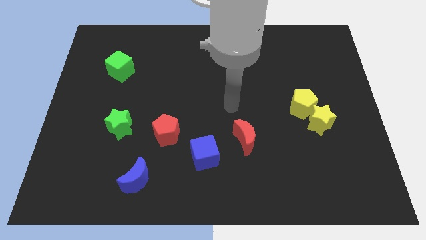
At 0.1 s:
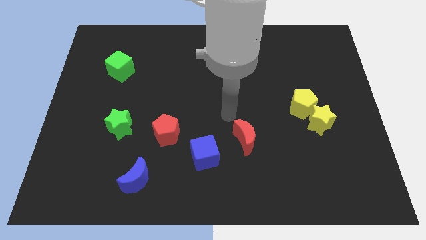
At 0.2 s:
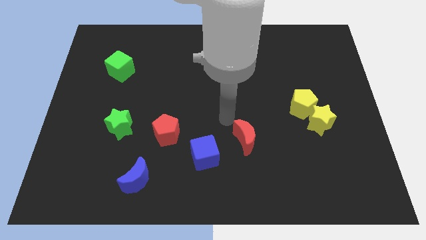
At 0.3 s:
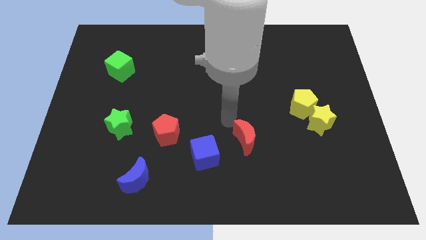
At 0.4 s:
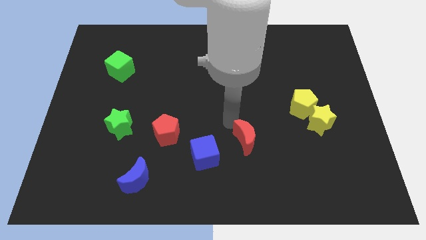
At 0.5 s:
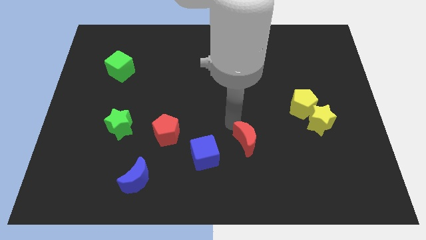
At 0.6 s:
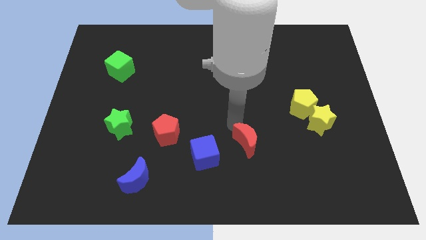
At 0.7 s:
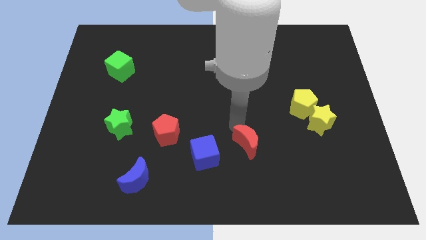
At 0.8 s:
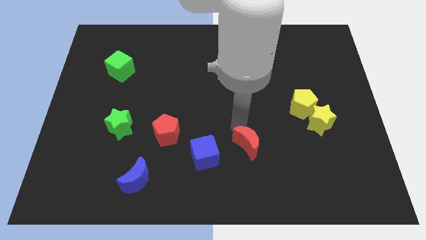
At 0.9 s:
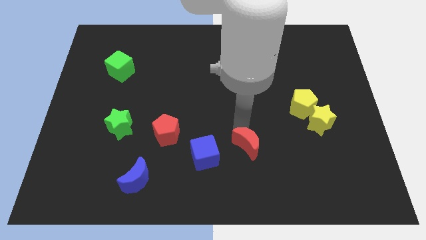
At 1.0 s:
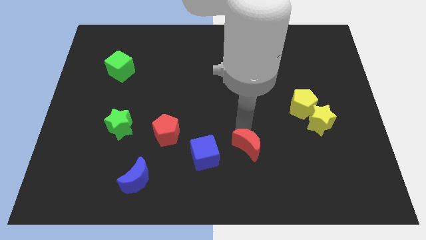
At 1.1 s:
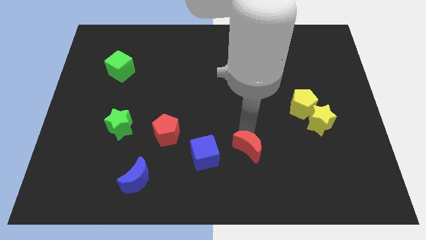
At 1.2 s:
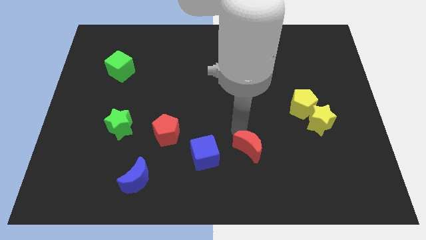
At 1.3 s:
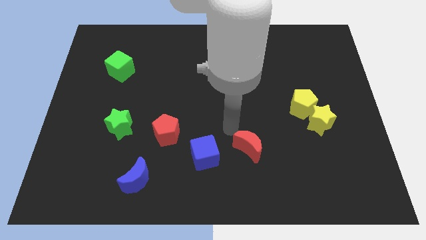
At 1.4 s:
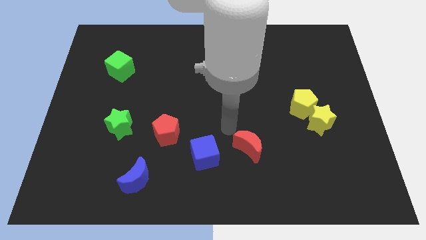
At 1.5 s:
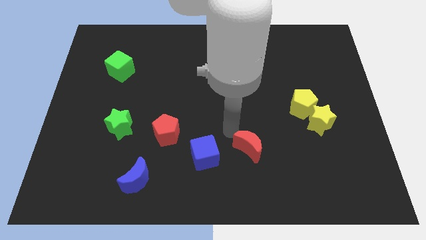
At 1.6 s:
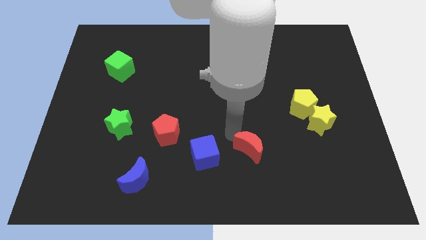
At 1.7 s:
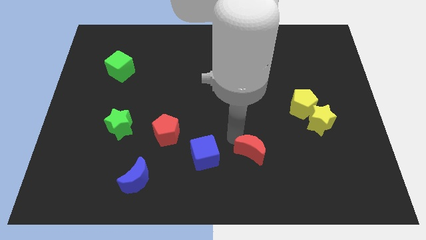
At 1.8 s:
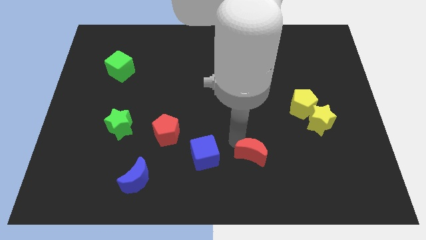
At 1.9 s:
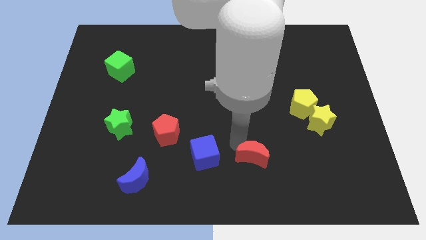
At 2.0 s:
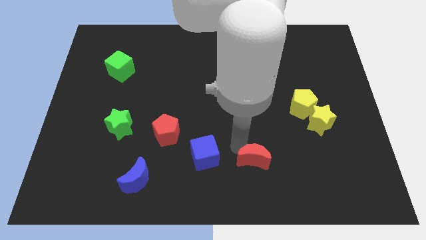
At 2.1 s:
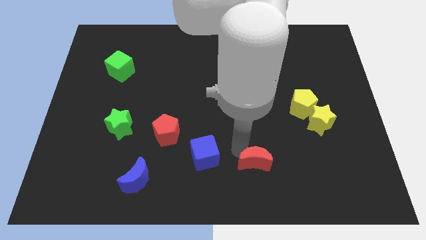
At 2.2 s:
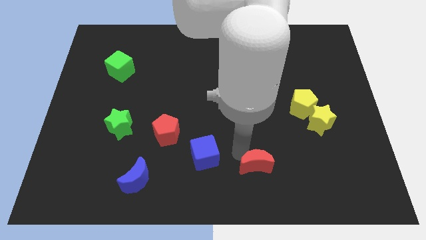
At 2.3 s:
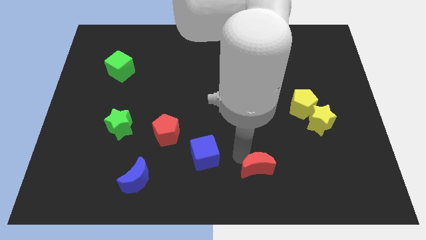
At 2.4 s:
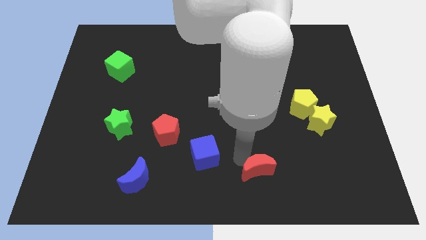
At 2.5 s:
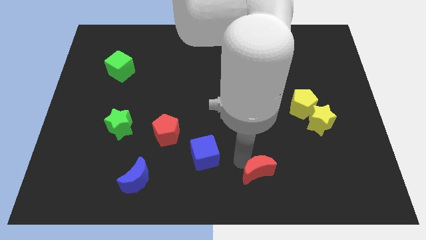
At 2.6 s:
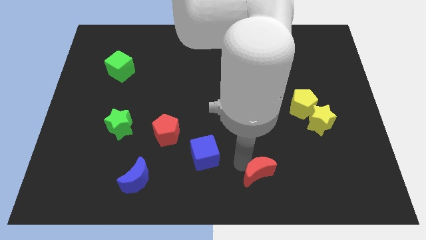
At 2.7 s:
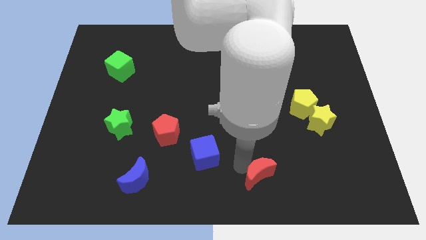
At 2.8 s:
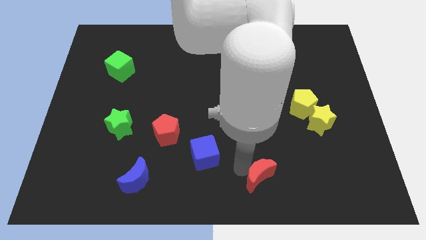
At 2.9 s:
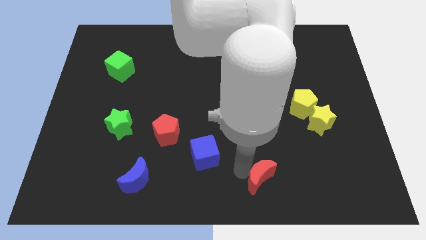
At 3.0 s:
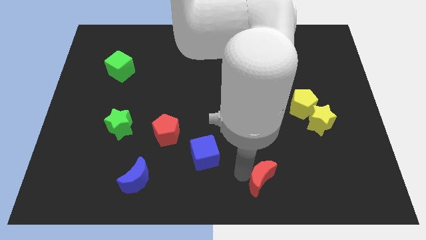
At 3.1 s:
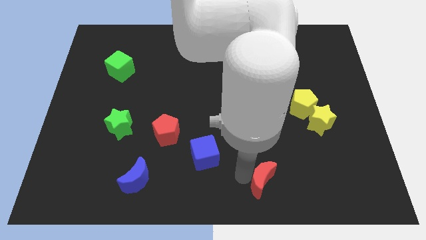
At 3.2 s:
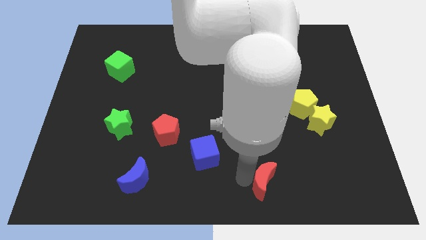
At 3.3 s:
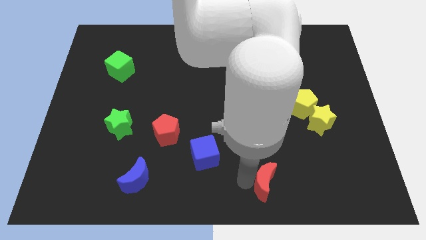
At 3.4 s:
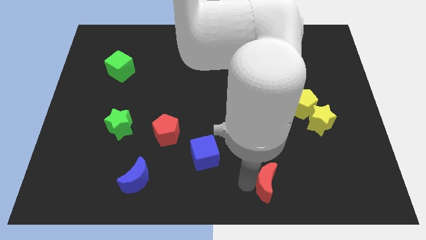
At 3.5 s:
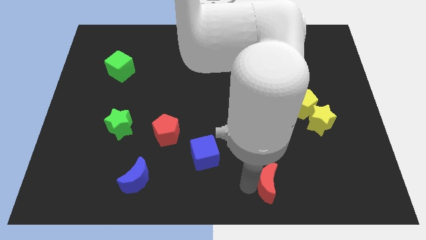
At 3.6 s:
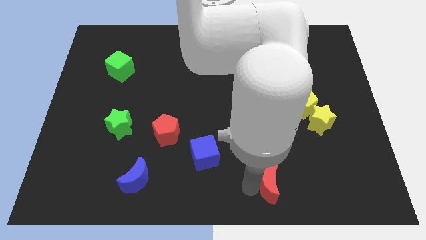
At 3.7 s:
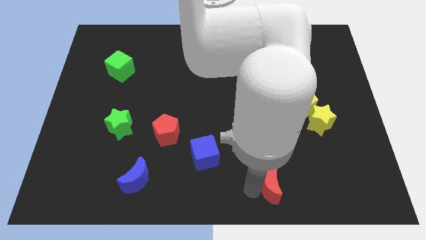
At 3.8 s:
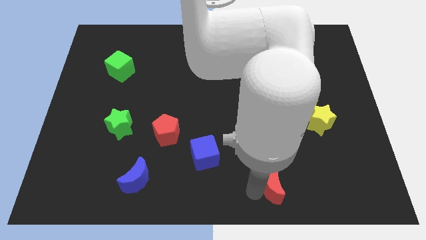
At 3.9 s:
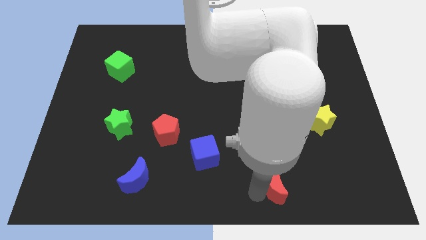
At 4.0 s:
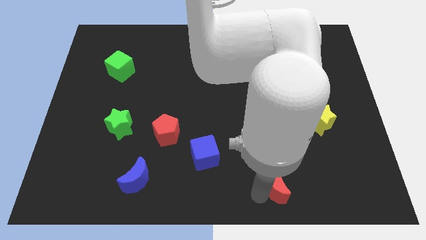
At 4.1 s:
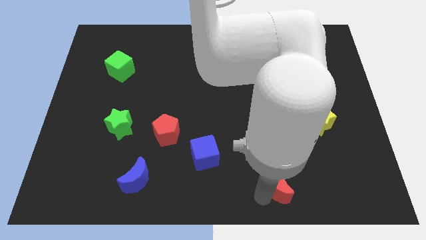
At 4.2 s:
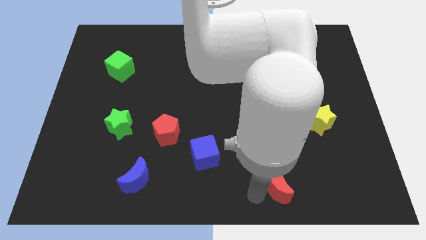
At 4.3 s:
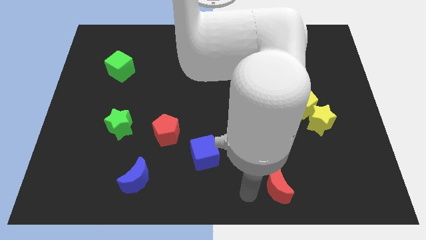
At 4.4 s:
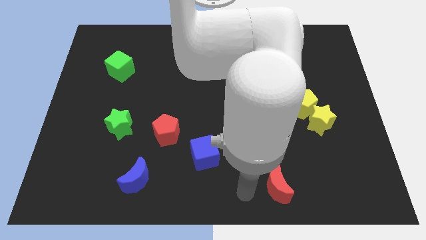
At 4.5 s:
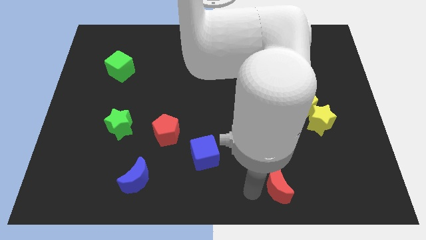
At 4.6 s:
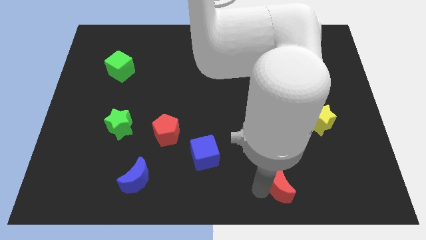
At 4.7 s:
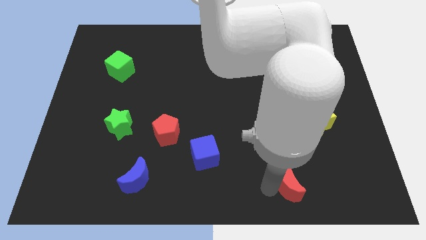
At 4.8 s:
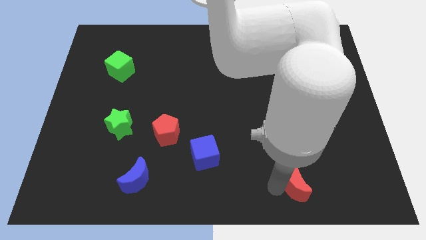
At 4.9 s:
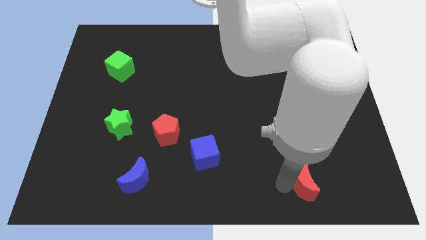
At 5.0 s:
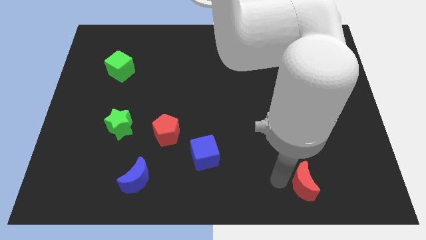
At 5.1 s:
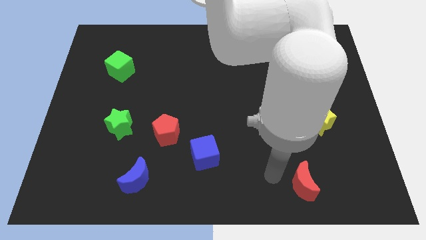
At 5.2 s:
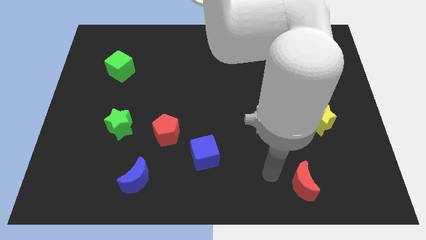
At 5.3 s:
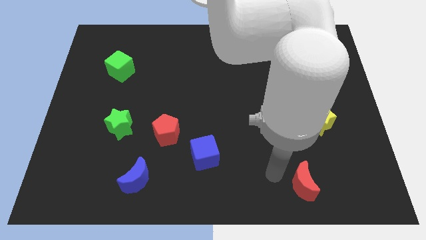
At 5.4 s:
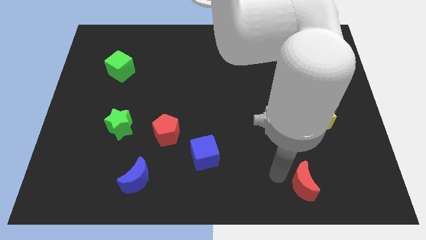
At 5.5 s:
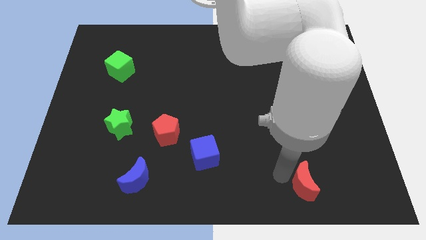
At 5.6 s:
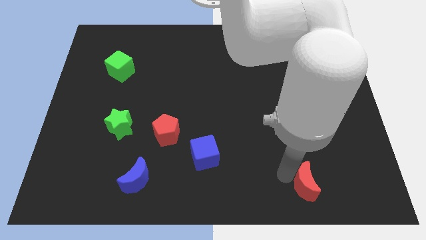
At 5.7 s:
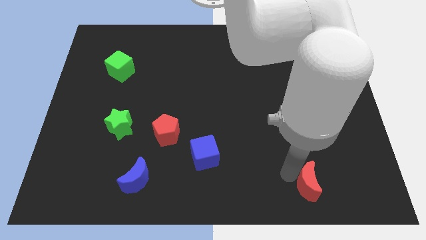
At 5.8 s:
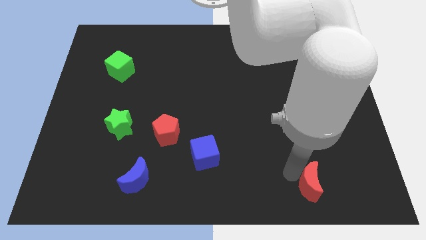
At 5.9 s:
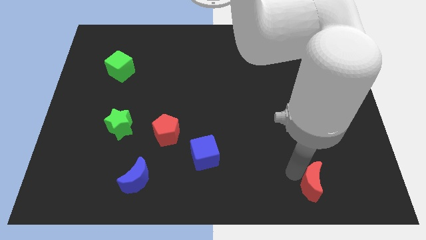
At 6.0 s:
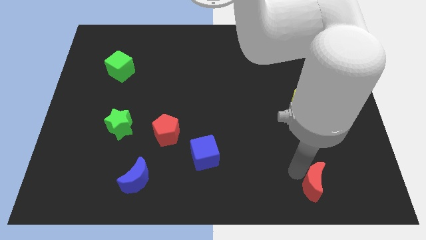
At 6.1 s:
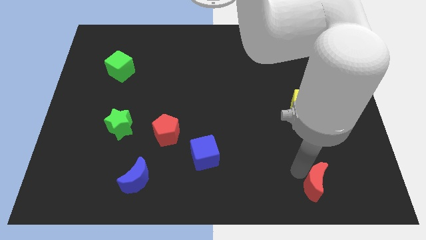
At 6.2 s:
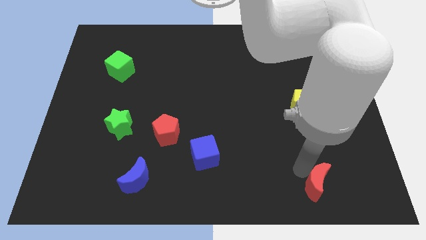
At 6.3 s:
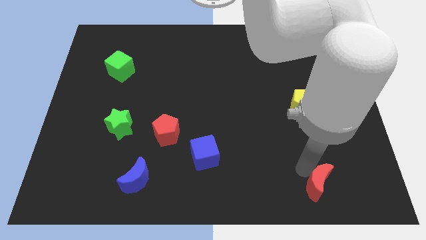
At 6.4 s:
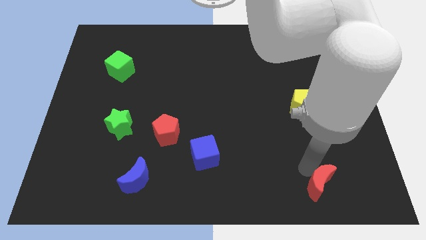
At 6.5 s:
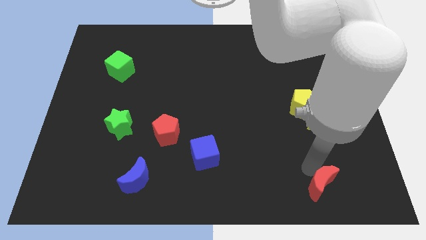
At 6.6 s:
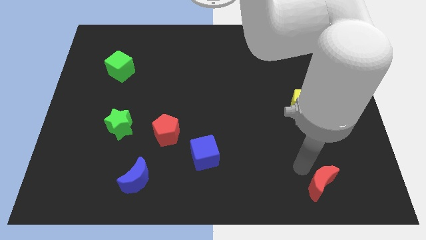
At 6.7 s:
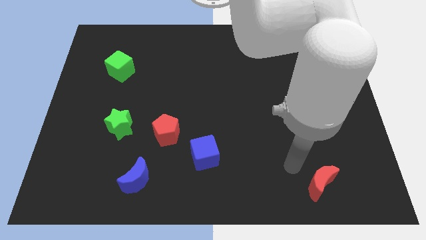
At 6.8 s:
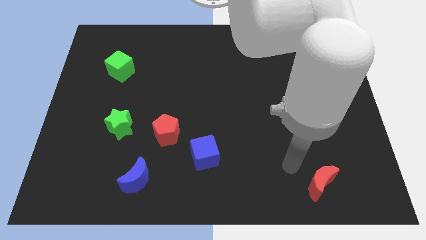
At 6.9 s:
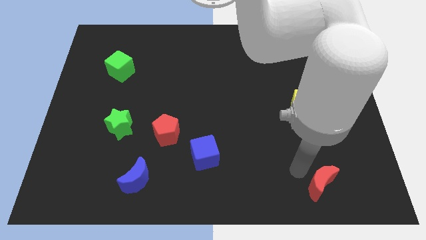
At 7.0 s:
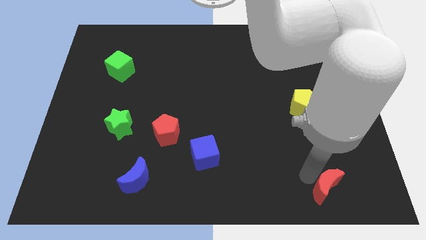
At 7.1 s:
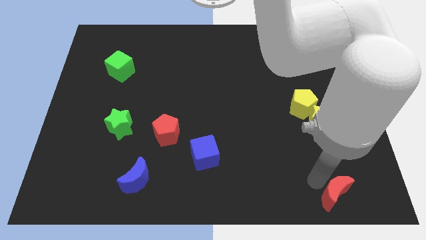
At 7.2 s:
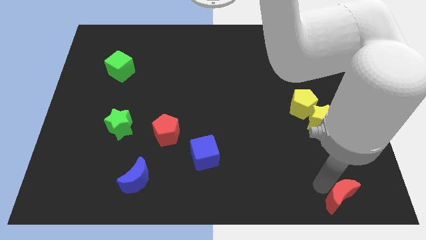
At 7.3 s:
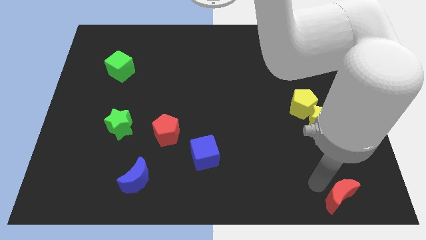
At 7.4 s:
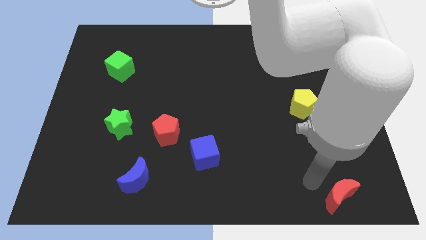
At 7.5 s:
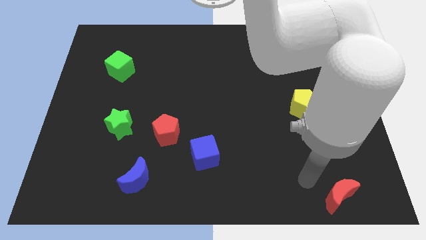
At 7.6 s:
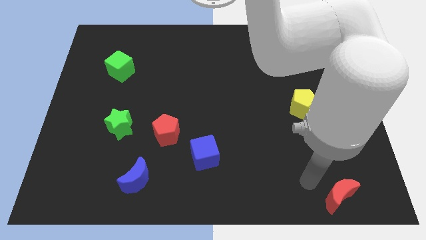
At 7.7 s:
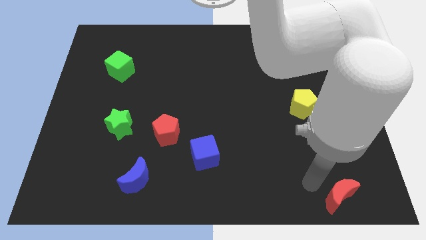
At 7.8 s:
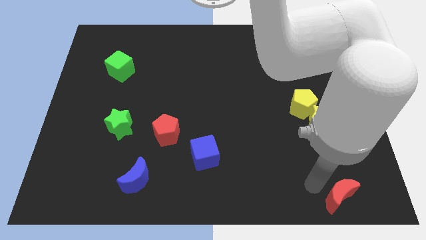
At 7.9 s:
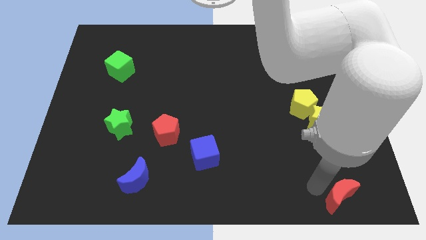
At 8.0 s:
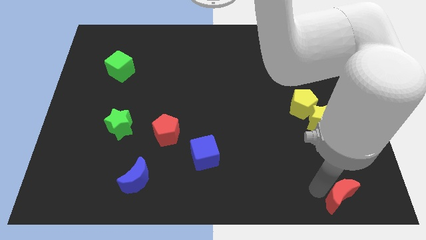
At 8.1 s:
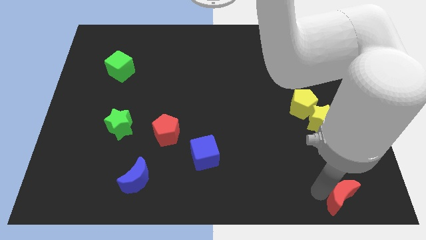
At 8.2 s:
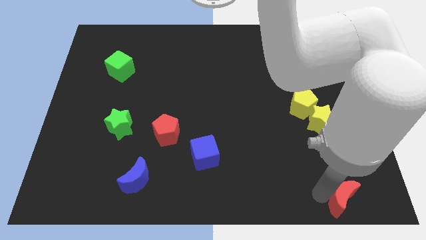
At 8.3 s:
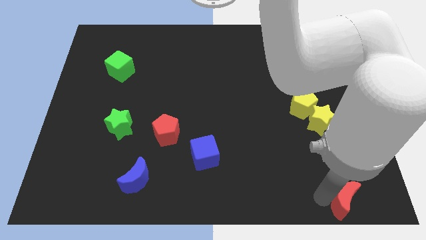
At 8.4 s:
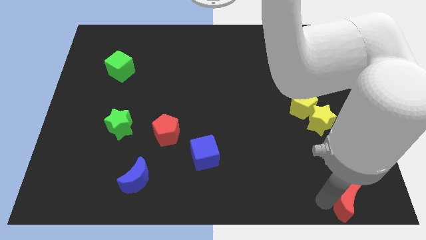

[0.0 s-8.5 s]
slide the red moon to the bottom right
